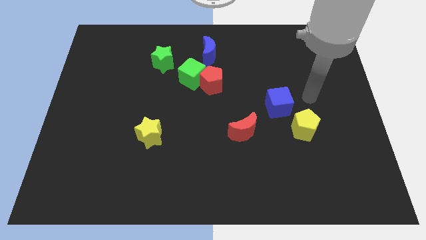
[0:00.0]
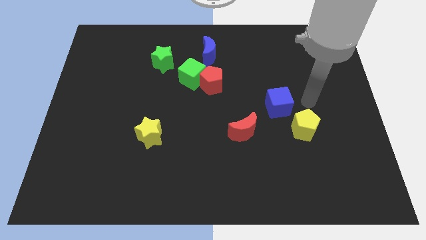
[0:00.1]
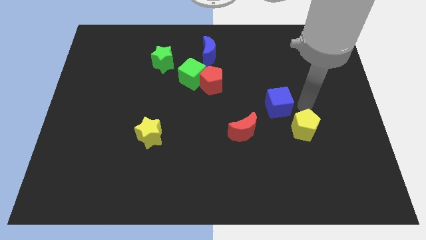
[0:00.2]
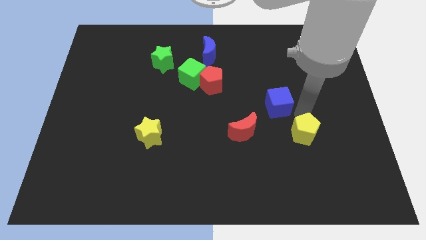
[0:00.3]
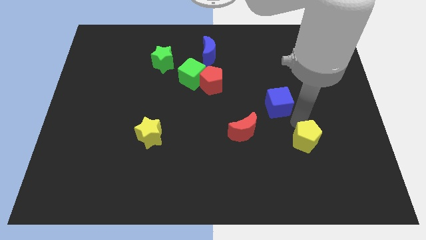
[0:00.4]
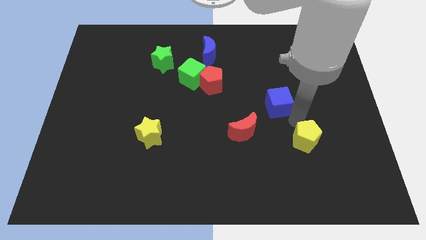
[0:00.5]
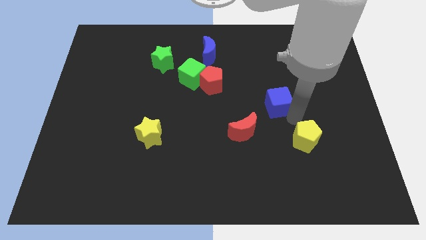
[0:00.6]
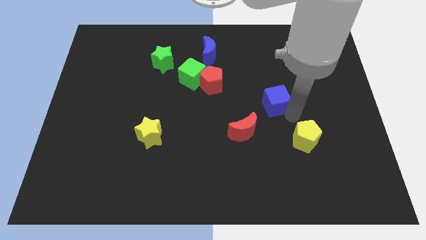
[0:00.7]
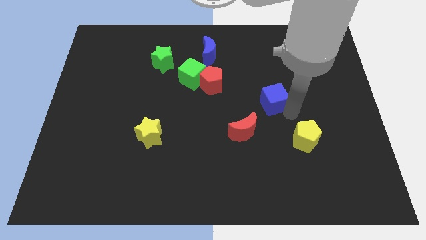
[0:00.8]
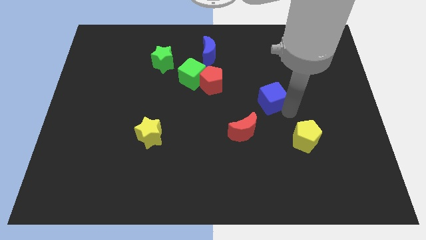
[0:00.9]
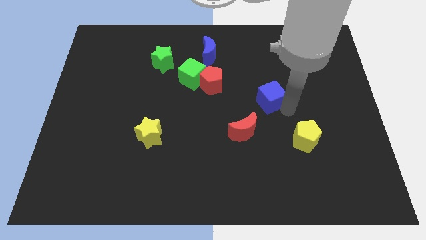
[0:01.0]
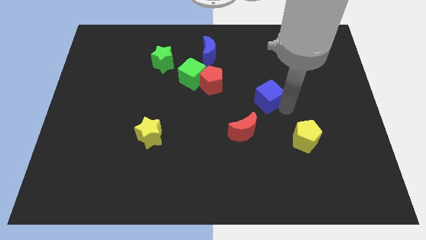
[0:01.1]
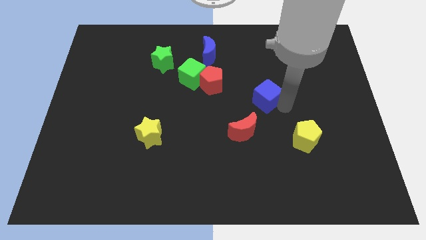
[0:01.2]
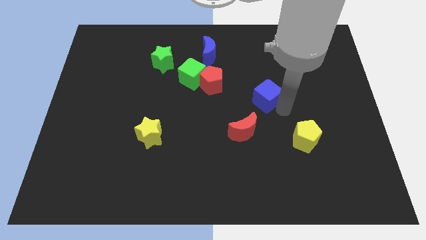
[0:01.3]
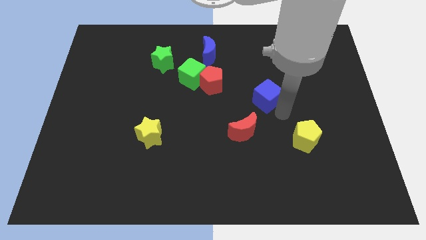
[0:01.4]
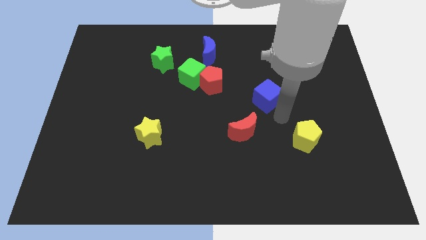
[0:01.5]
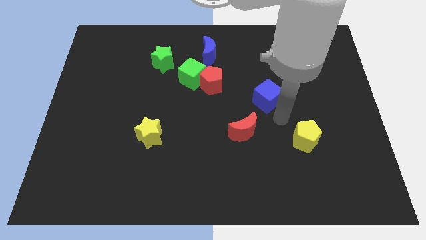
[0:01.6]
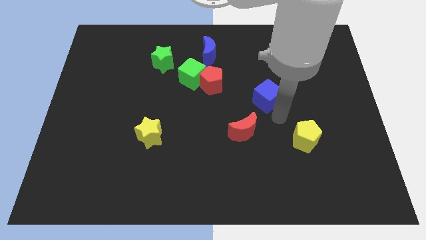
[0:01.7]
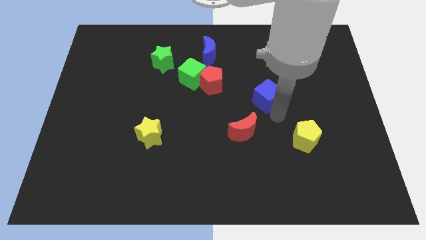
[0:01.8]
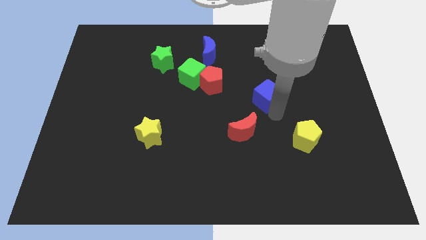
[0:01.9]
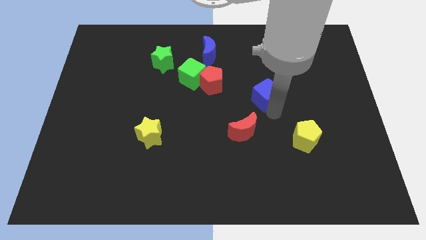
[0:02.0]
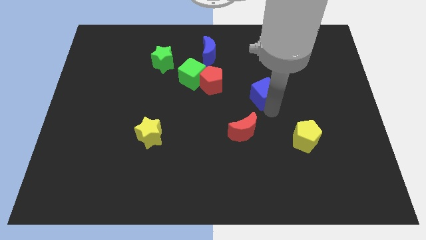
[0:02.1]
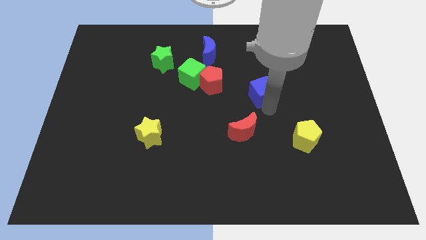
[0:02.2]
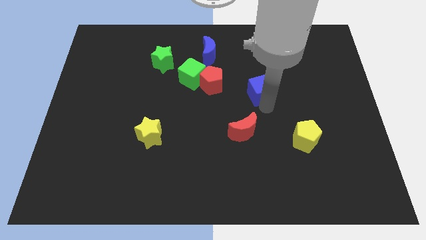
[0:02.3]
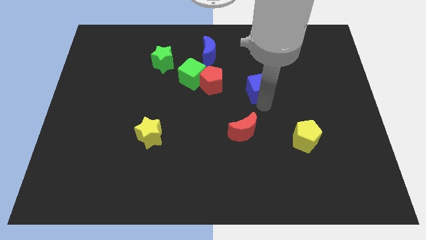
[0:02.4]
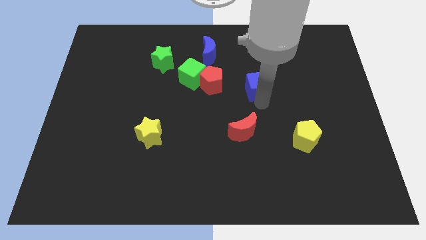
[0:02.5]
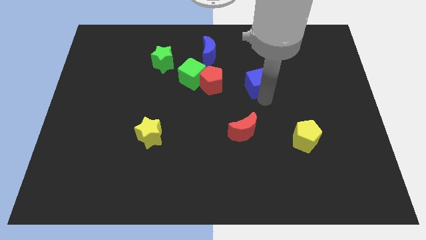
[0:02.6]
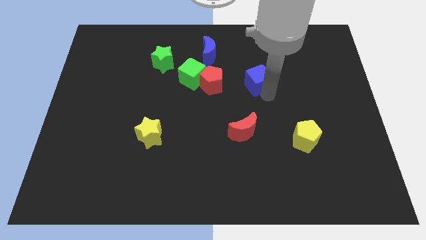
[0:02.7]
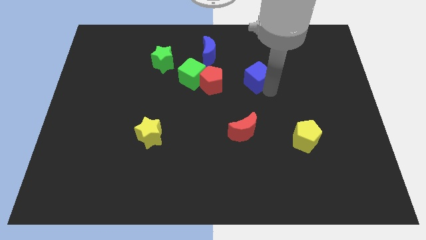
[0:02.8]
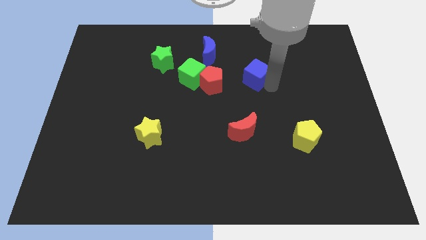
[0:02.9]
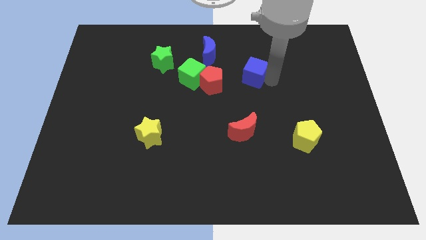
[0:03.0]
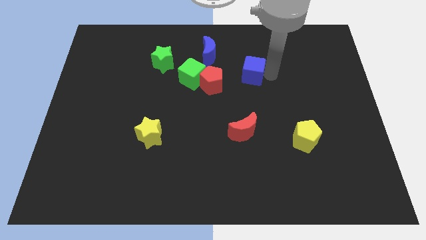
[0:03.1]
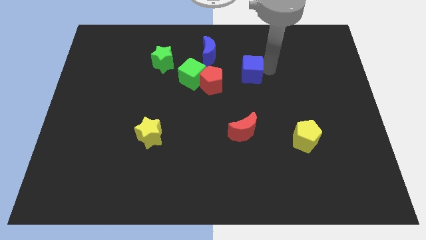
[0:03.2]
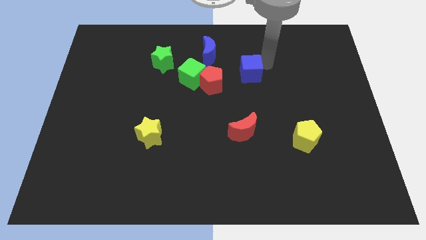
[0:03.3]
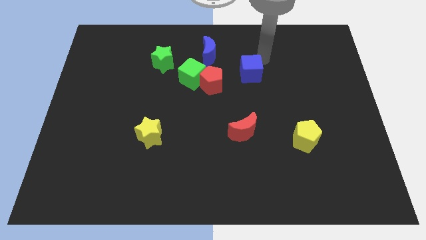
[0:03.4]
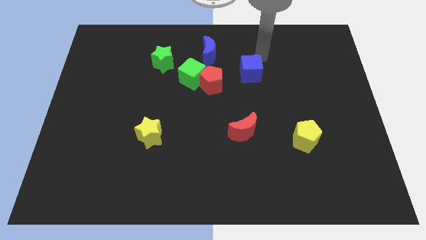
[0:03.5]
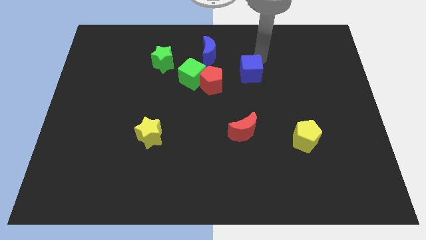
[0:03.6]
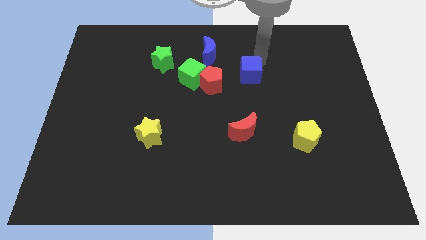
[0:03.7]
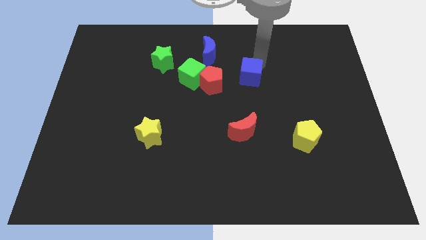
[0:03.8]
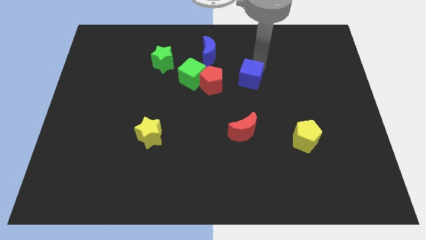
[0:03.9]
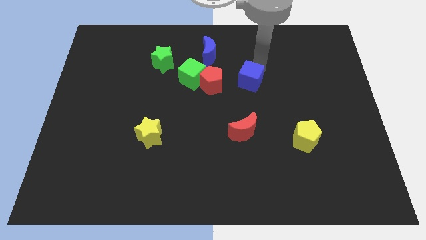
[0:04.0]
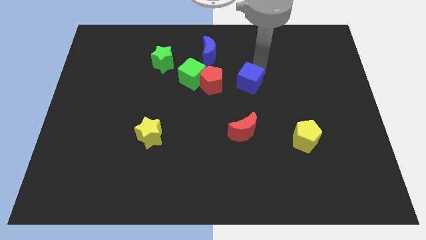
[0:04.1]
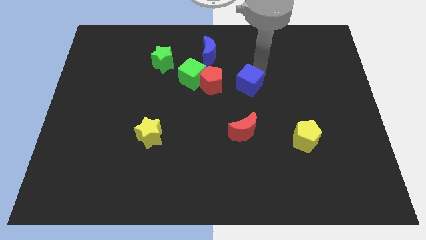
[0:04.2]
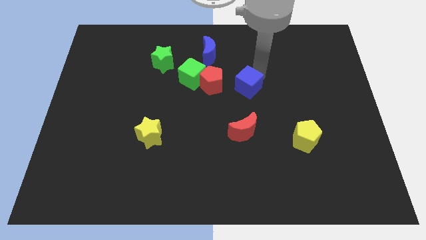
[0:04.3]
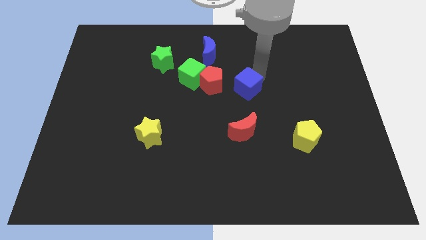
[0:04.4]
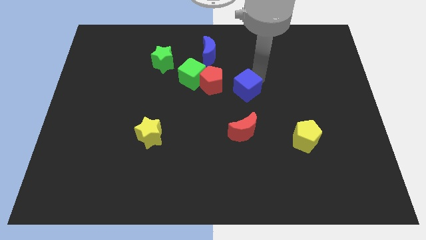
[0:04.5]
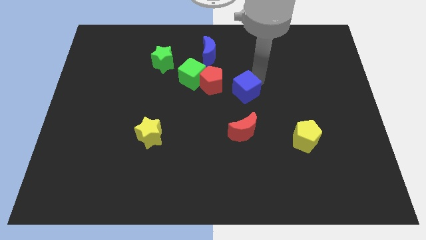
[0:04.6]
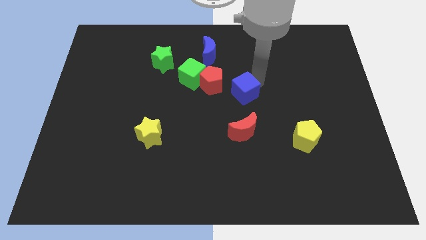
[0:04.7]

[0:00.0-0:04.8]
push the blue cube to the left slightly

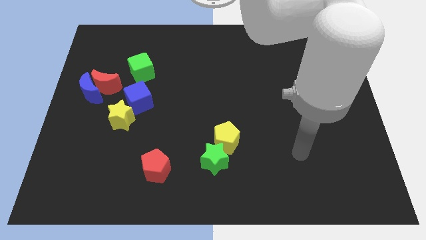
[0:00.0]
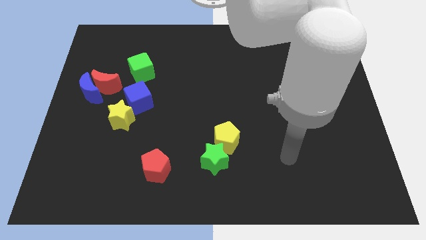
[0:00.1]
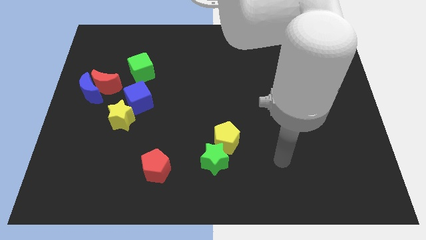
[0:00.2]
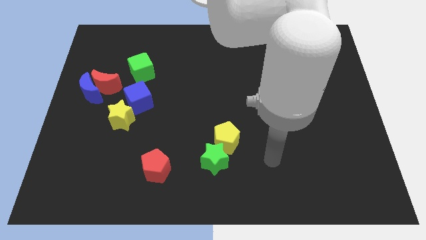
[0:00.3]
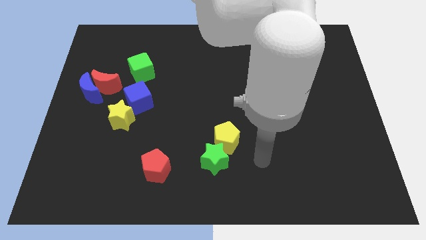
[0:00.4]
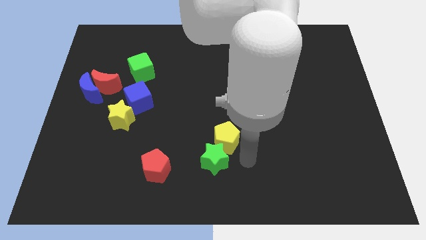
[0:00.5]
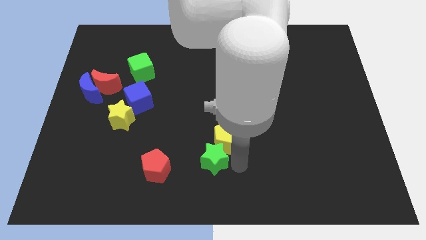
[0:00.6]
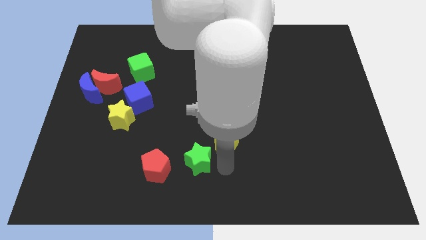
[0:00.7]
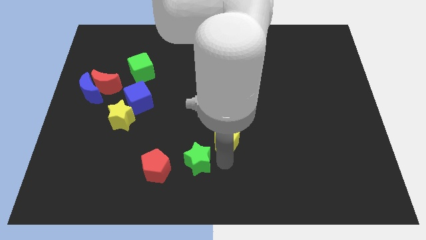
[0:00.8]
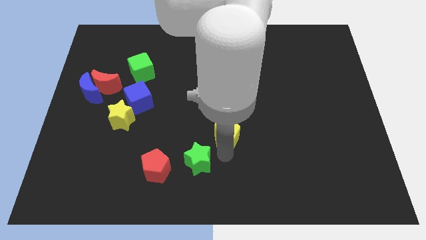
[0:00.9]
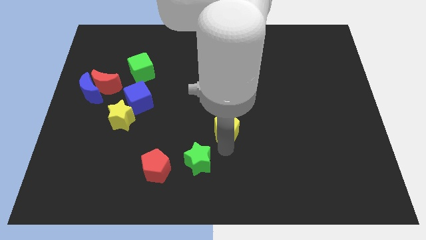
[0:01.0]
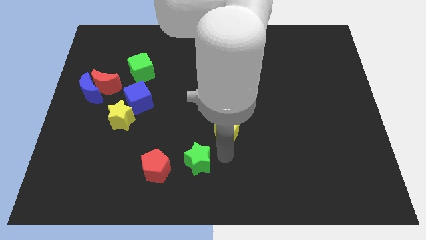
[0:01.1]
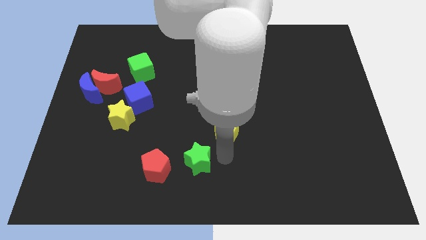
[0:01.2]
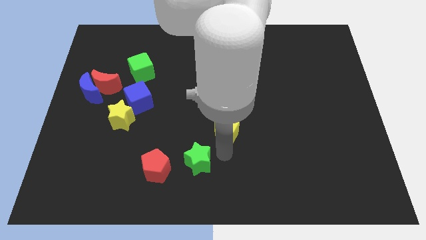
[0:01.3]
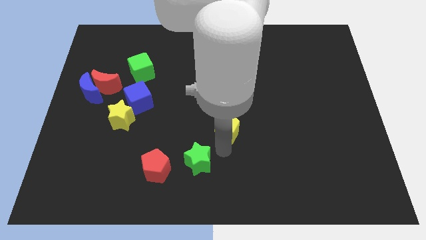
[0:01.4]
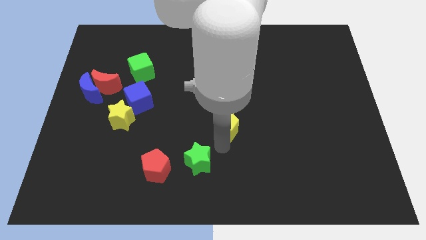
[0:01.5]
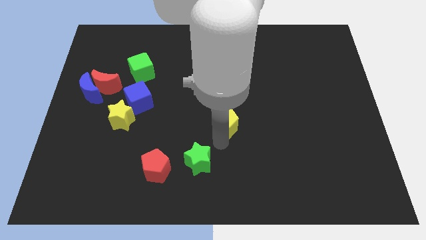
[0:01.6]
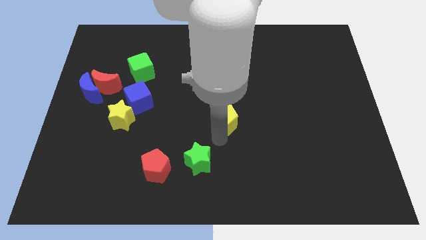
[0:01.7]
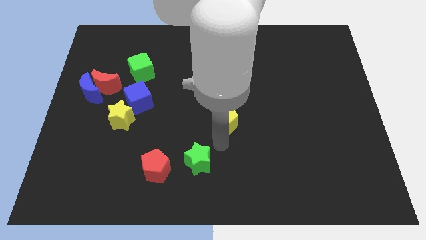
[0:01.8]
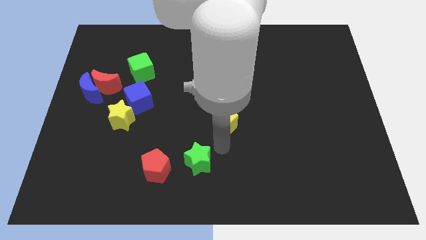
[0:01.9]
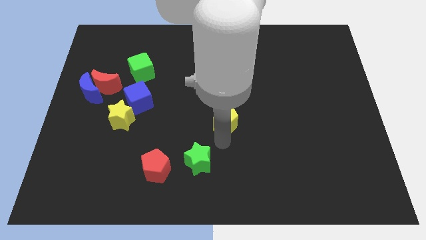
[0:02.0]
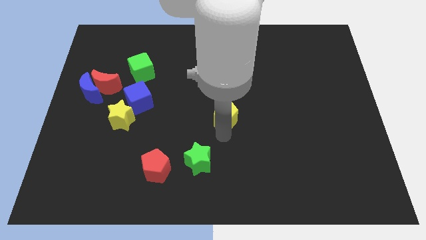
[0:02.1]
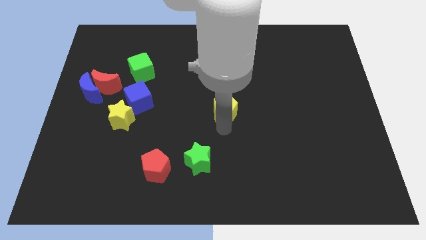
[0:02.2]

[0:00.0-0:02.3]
slightly move the yellow pentagon up

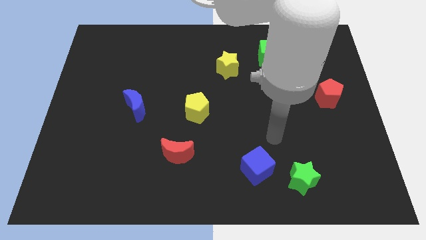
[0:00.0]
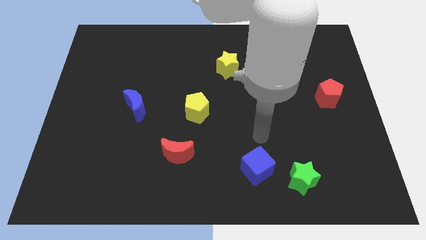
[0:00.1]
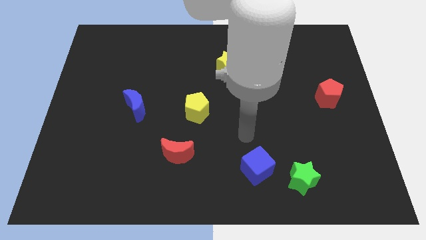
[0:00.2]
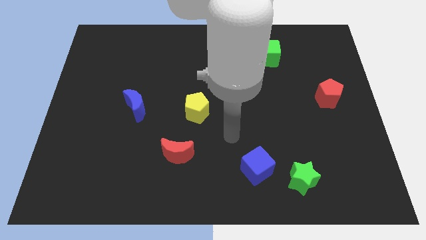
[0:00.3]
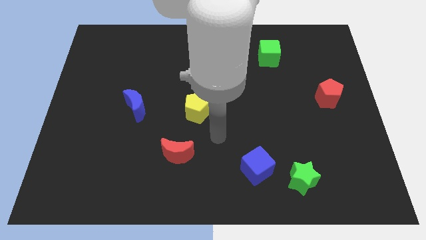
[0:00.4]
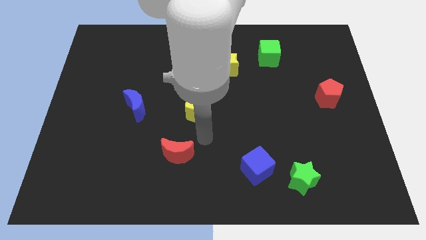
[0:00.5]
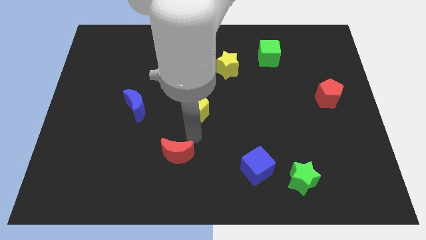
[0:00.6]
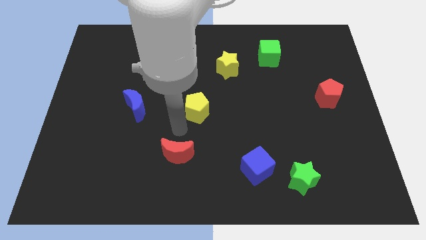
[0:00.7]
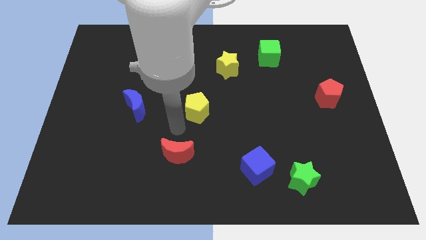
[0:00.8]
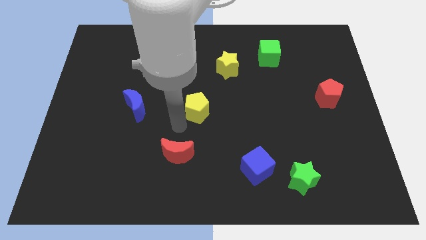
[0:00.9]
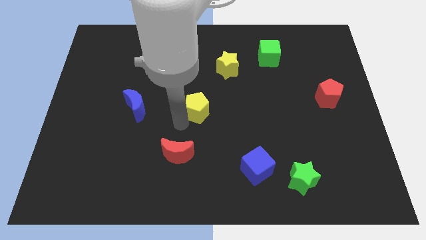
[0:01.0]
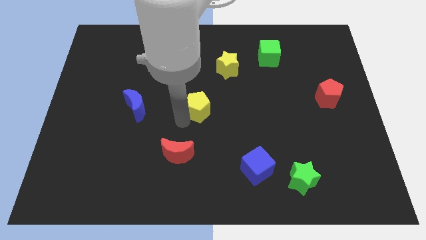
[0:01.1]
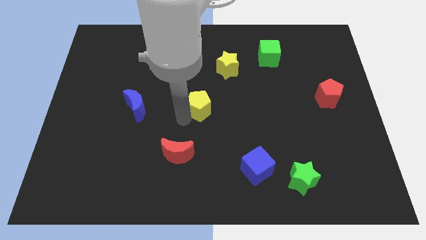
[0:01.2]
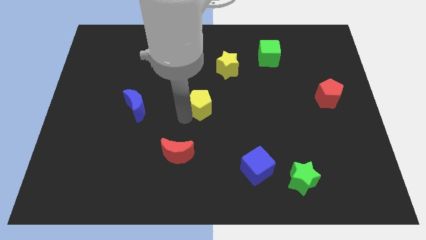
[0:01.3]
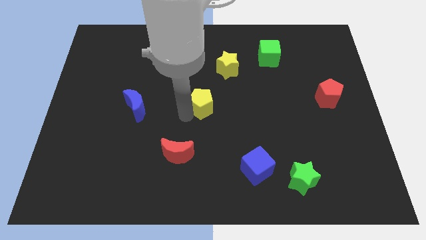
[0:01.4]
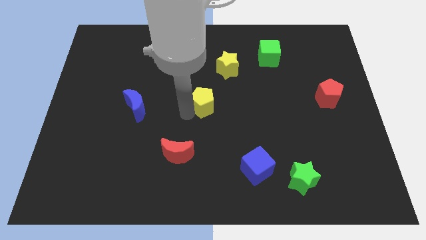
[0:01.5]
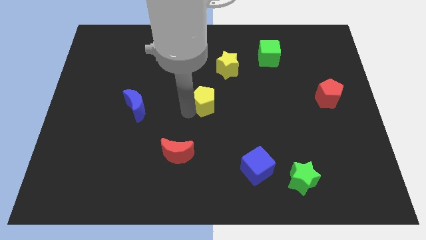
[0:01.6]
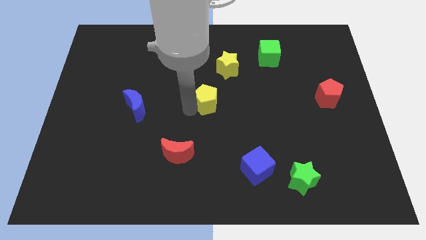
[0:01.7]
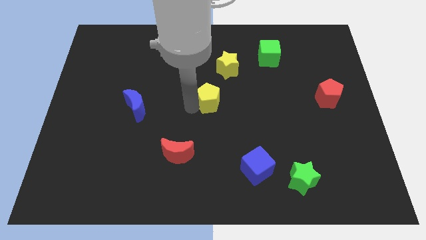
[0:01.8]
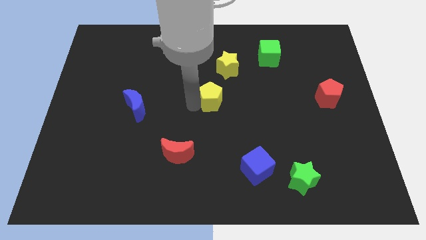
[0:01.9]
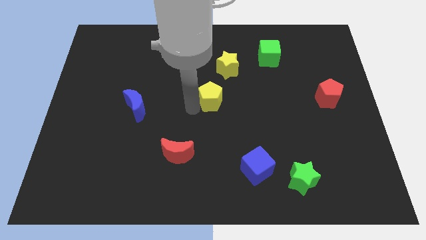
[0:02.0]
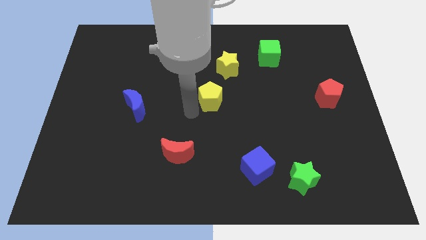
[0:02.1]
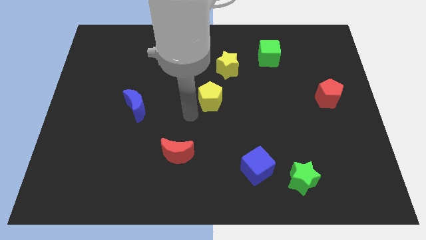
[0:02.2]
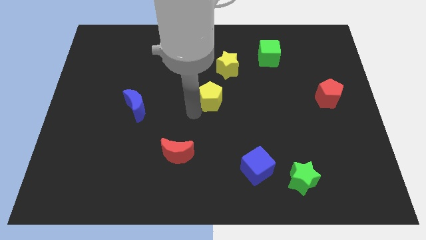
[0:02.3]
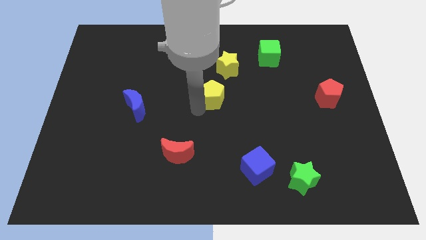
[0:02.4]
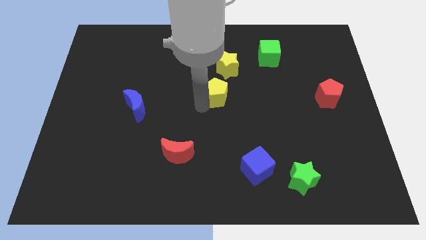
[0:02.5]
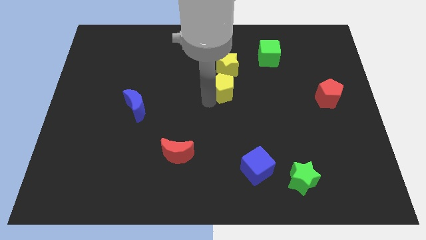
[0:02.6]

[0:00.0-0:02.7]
move the yellow pentagon a little upwards and then to the right
